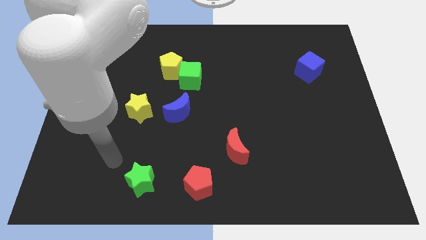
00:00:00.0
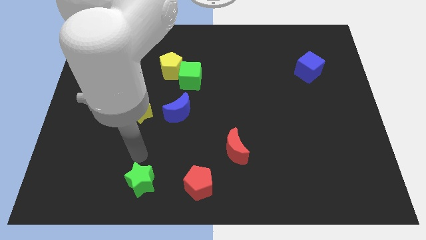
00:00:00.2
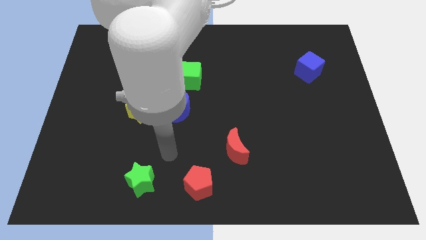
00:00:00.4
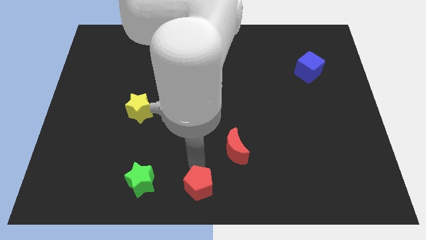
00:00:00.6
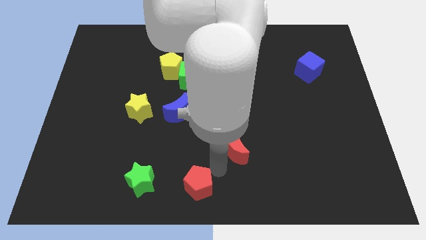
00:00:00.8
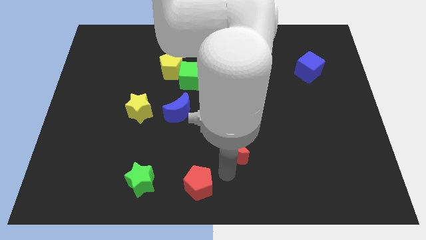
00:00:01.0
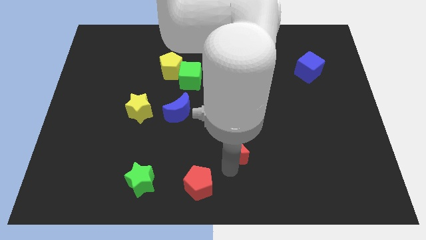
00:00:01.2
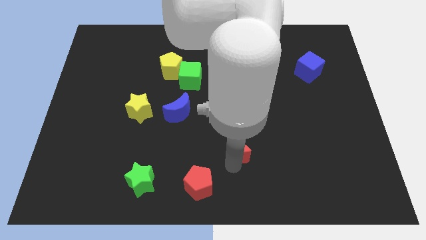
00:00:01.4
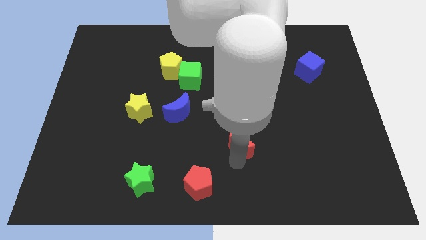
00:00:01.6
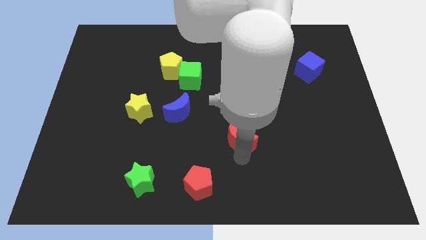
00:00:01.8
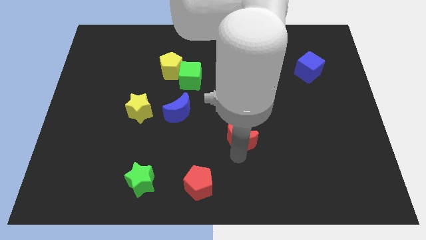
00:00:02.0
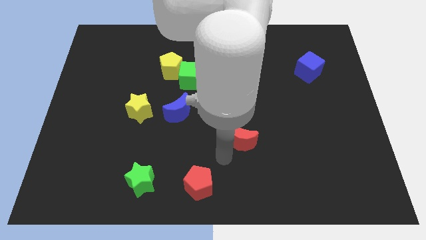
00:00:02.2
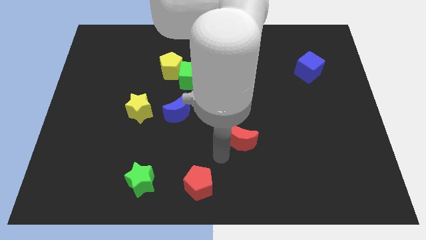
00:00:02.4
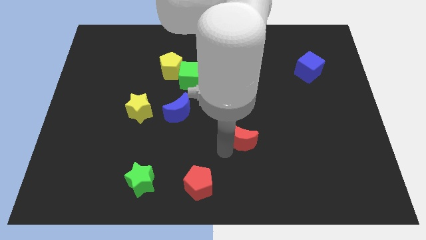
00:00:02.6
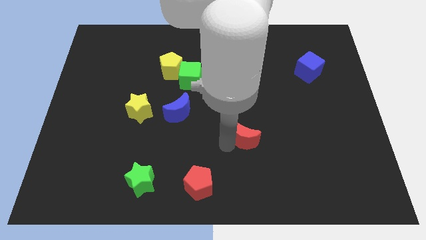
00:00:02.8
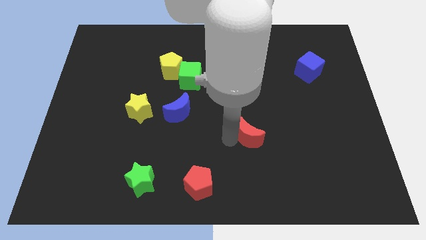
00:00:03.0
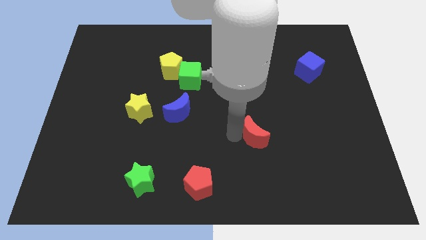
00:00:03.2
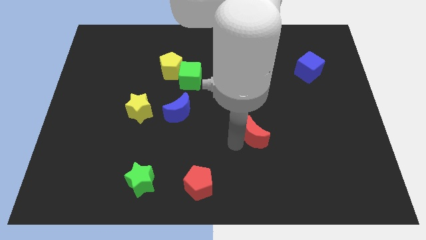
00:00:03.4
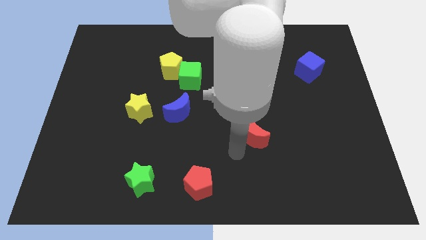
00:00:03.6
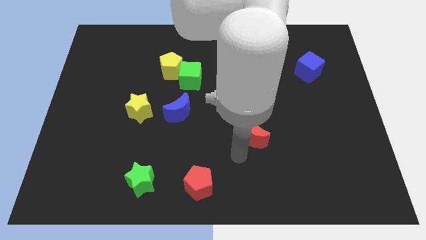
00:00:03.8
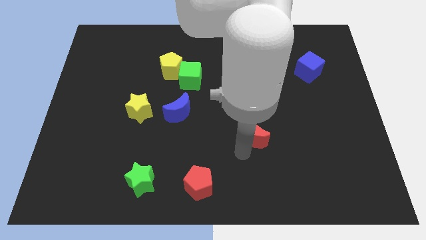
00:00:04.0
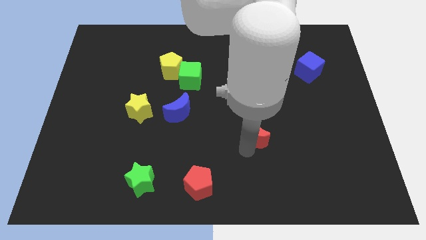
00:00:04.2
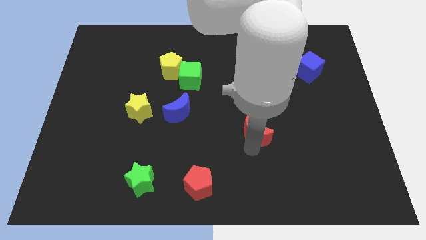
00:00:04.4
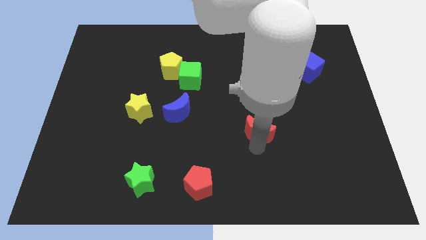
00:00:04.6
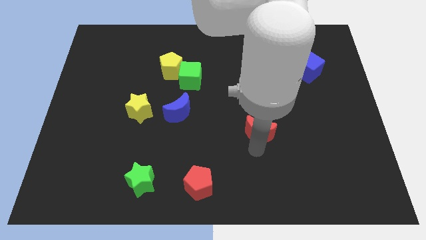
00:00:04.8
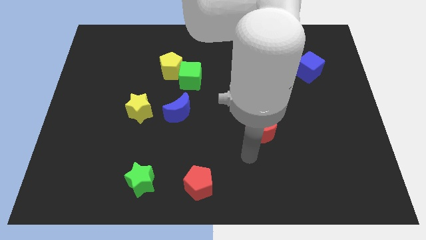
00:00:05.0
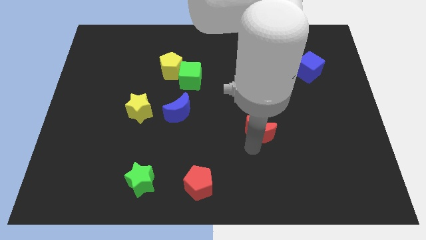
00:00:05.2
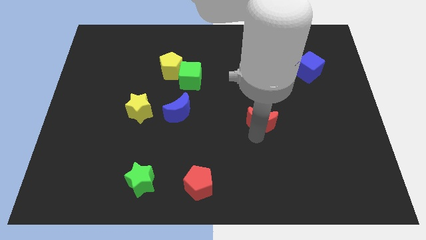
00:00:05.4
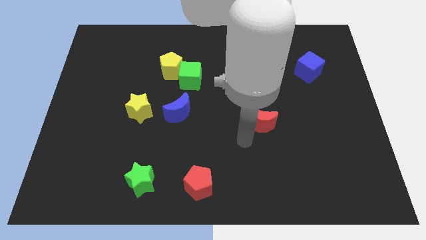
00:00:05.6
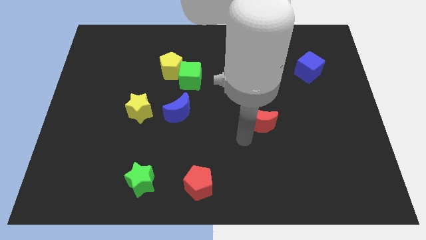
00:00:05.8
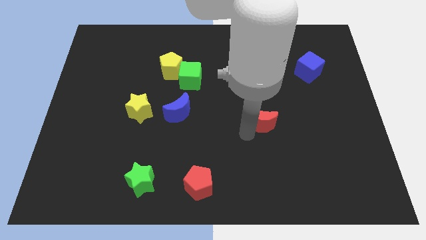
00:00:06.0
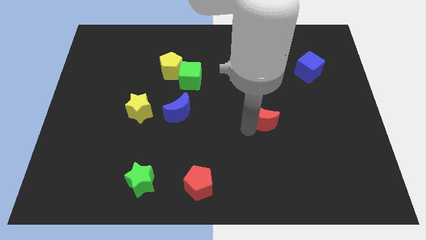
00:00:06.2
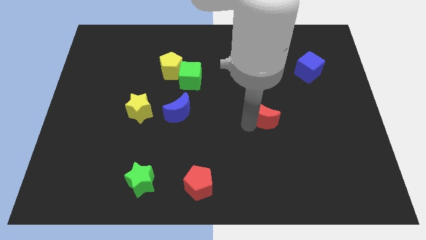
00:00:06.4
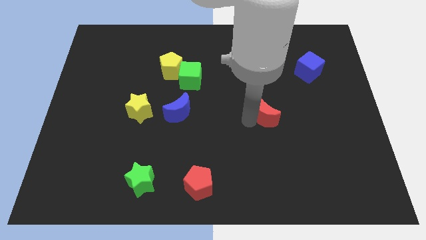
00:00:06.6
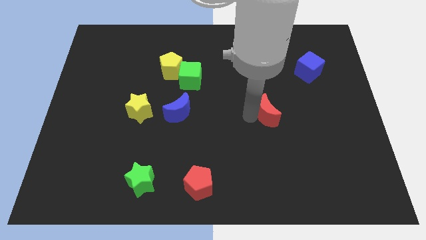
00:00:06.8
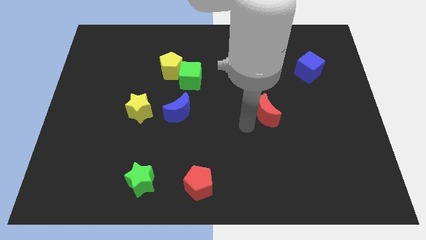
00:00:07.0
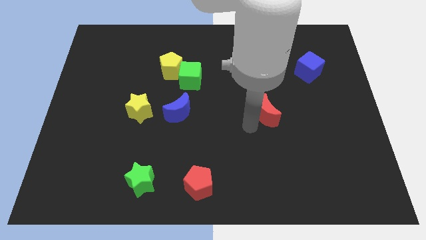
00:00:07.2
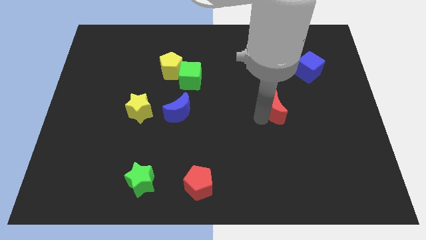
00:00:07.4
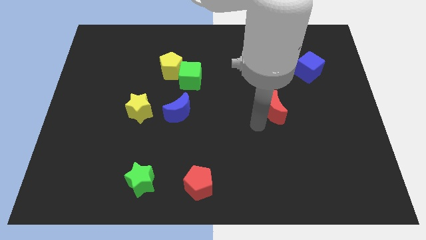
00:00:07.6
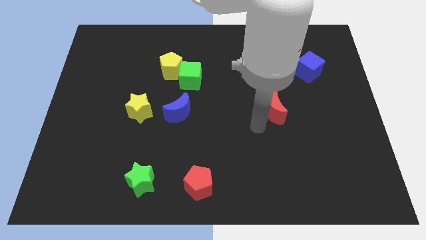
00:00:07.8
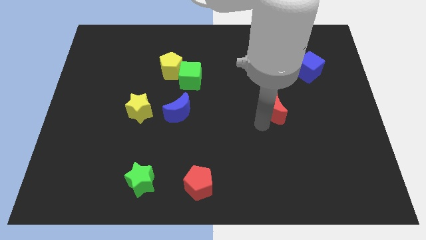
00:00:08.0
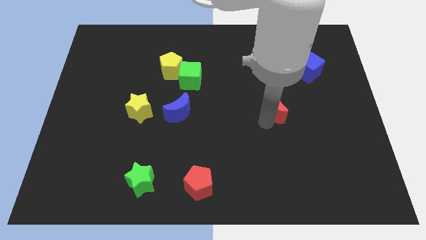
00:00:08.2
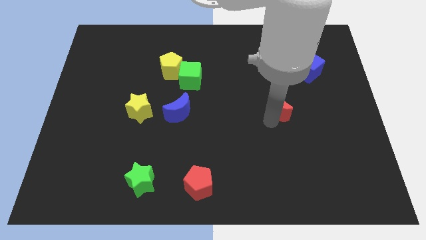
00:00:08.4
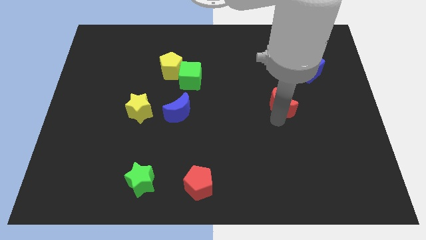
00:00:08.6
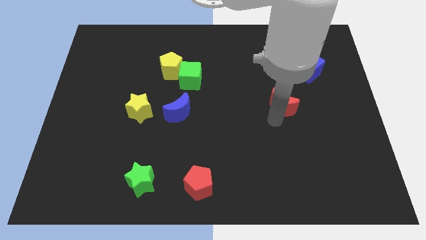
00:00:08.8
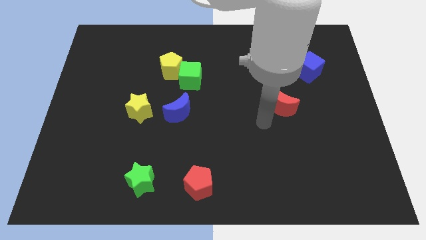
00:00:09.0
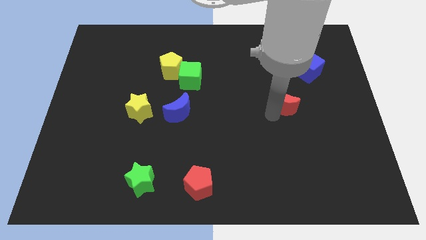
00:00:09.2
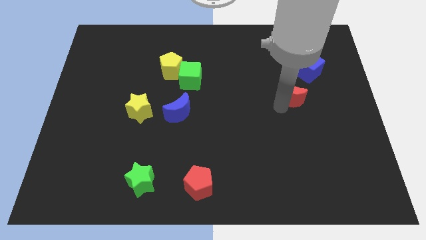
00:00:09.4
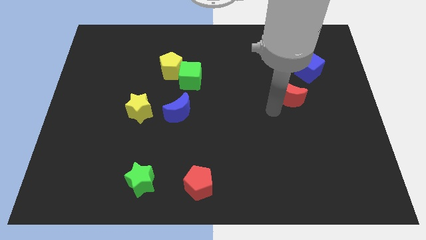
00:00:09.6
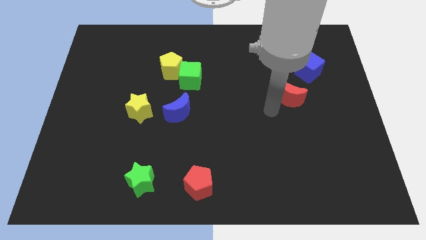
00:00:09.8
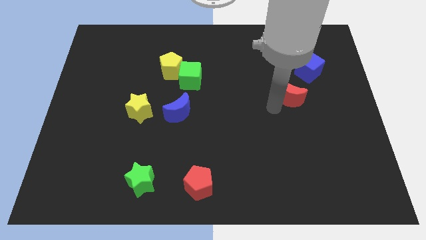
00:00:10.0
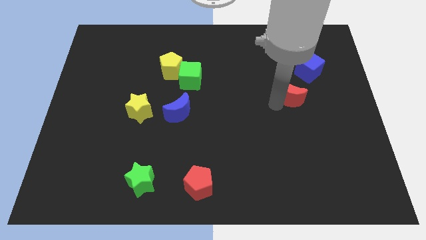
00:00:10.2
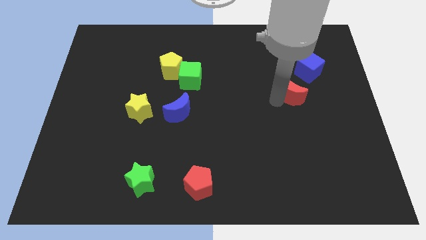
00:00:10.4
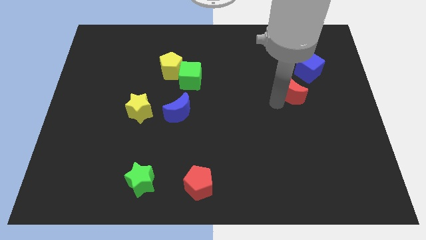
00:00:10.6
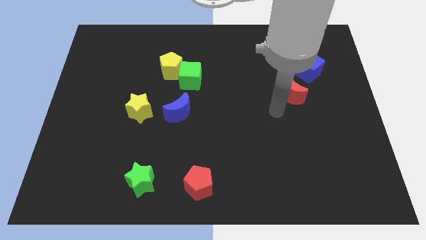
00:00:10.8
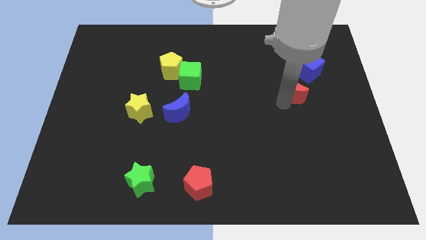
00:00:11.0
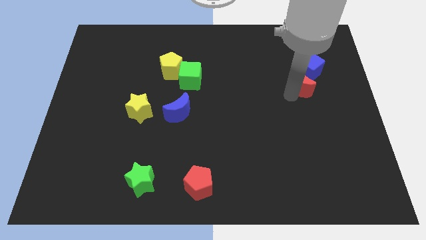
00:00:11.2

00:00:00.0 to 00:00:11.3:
put the red moon to the blue cube
